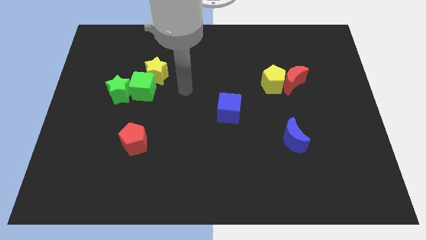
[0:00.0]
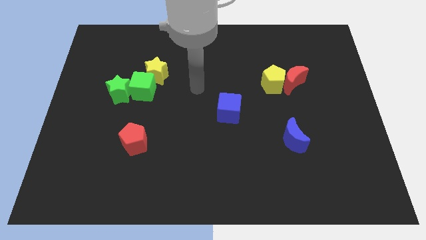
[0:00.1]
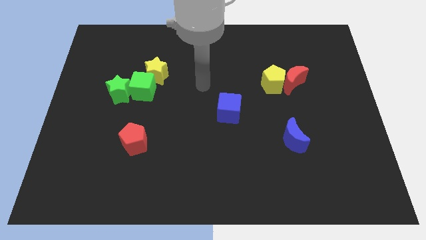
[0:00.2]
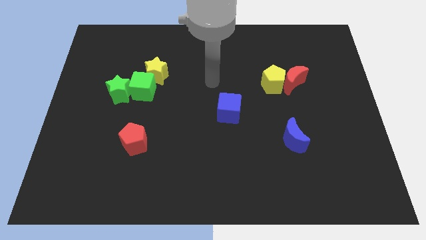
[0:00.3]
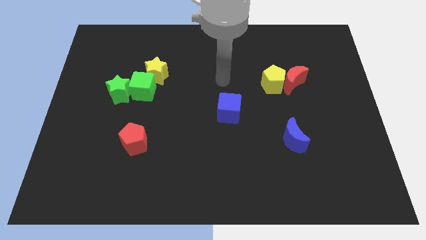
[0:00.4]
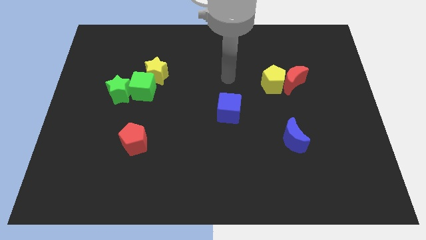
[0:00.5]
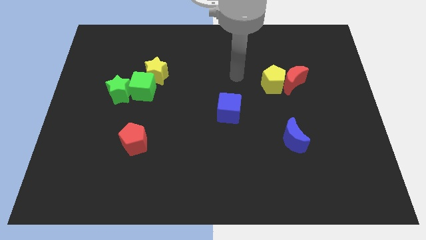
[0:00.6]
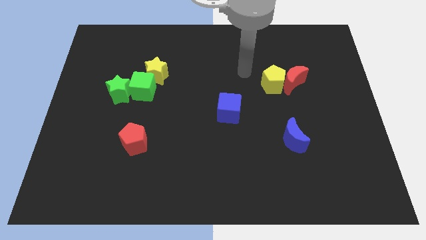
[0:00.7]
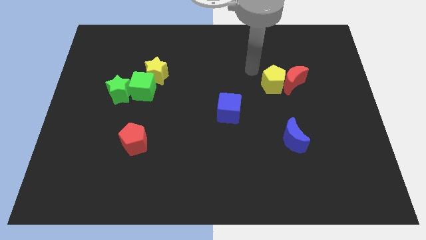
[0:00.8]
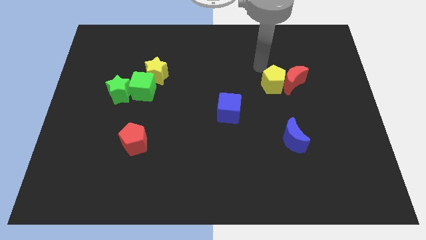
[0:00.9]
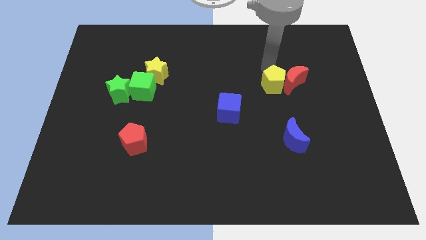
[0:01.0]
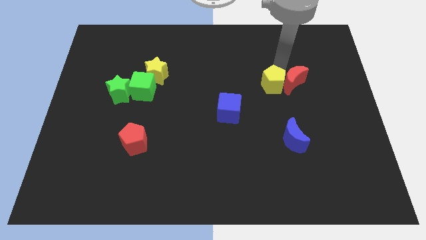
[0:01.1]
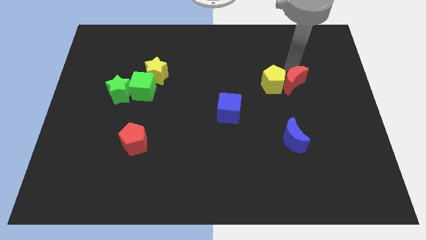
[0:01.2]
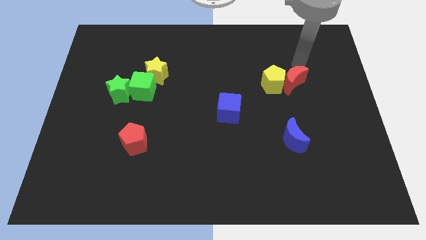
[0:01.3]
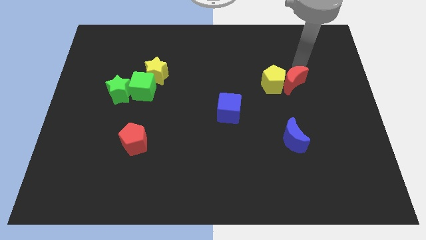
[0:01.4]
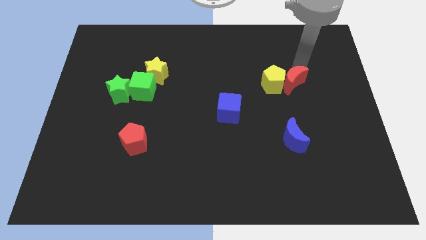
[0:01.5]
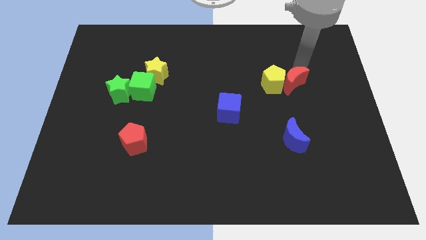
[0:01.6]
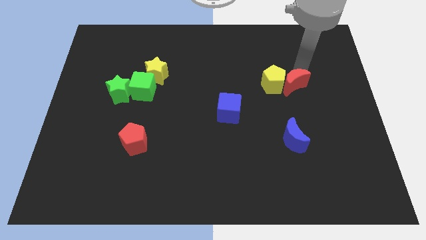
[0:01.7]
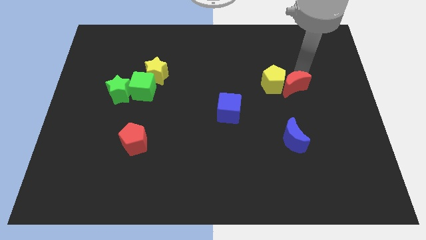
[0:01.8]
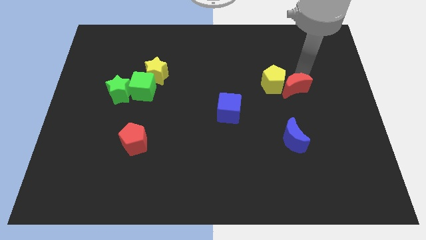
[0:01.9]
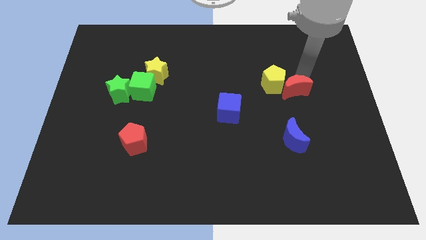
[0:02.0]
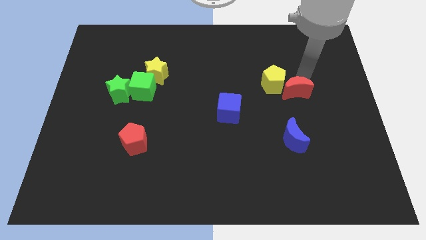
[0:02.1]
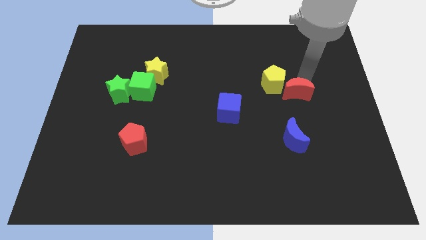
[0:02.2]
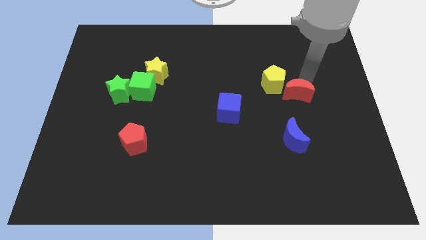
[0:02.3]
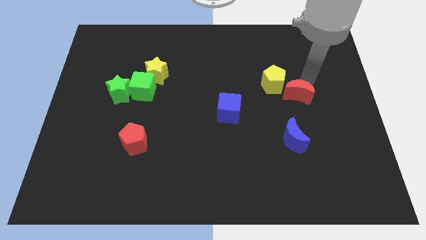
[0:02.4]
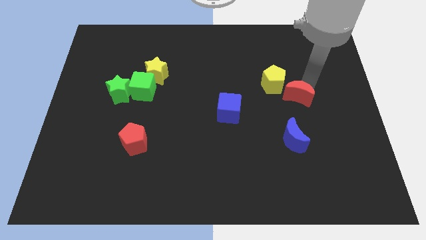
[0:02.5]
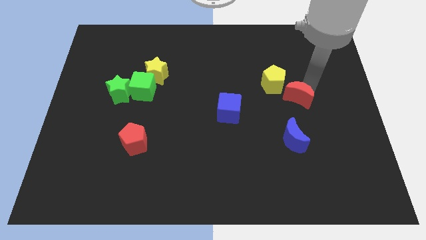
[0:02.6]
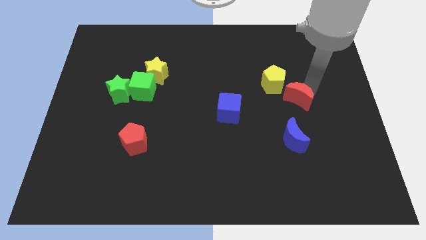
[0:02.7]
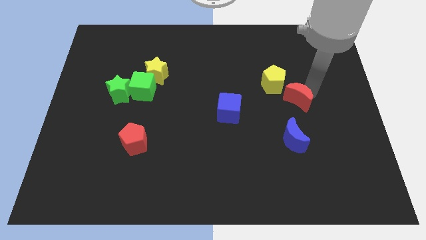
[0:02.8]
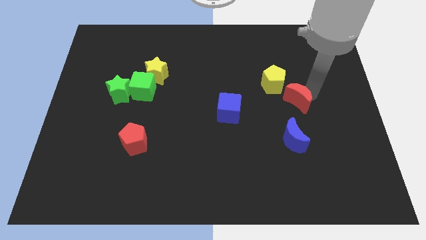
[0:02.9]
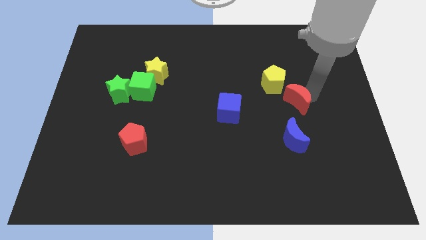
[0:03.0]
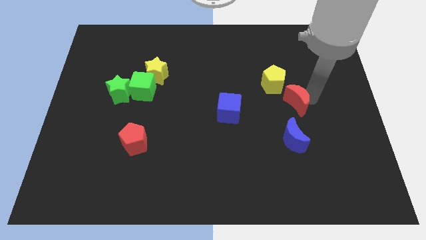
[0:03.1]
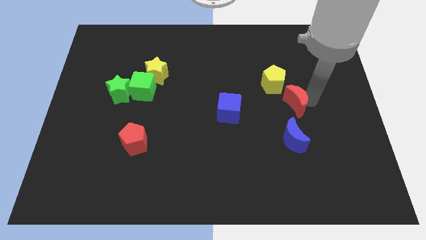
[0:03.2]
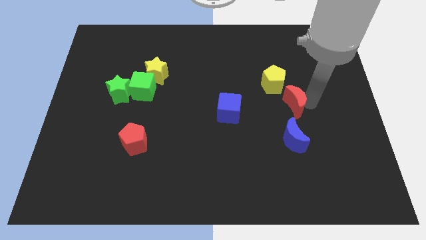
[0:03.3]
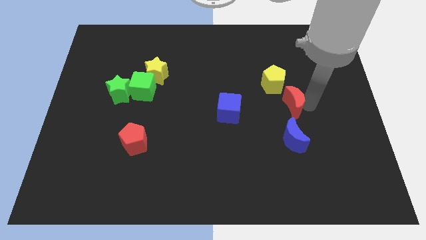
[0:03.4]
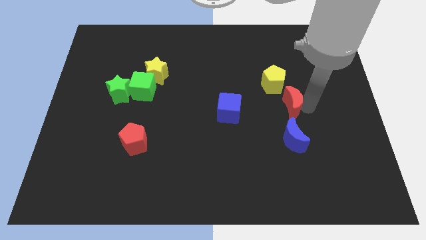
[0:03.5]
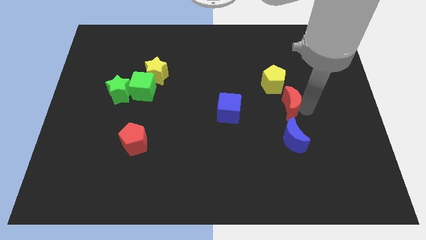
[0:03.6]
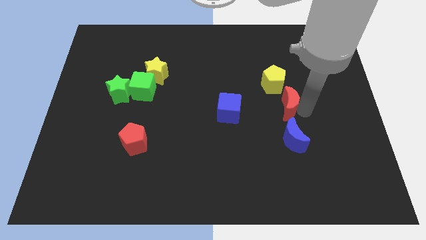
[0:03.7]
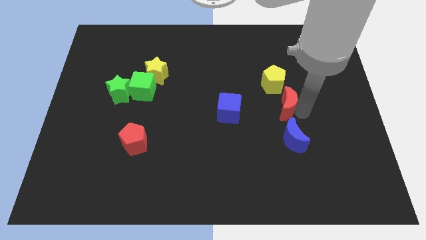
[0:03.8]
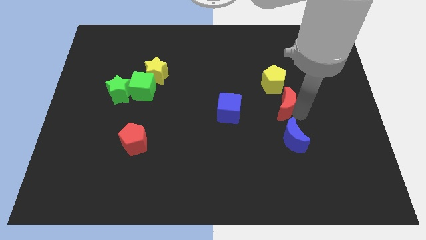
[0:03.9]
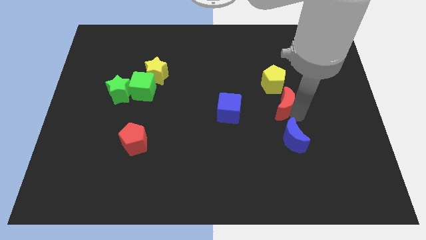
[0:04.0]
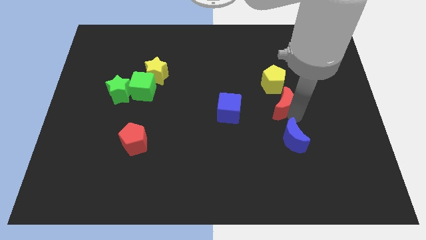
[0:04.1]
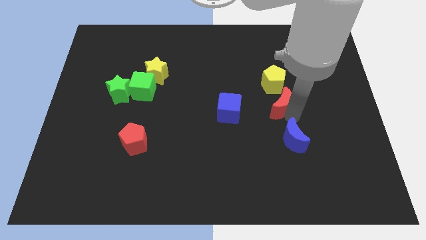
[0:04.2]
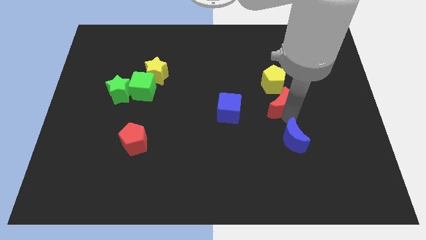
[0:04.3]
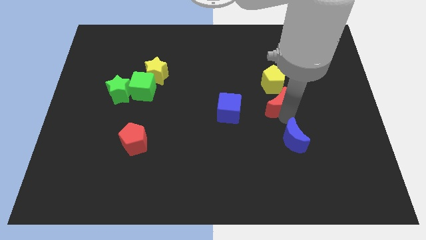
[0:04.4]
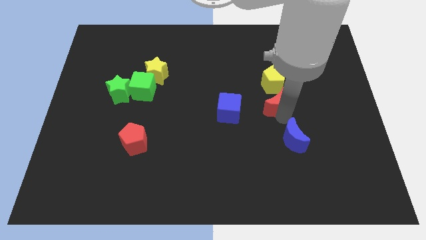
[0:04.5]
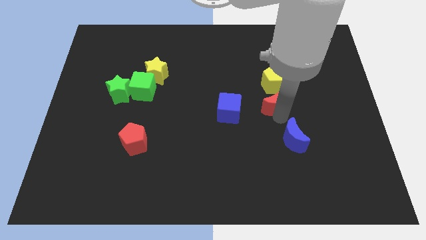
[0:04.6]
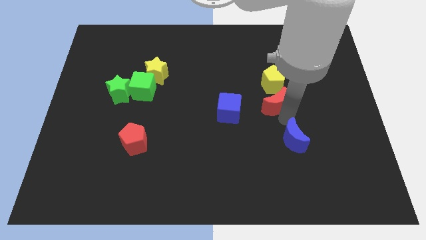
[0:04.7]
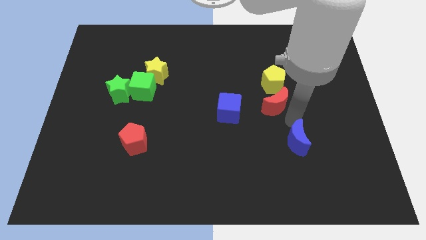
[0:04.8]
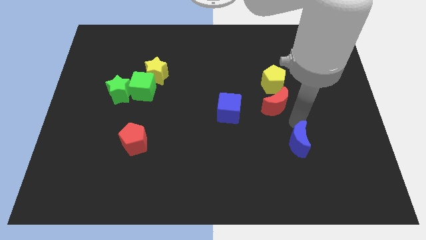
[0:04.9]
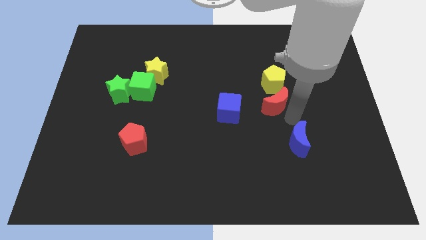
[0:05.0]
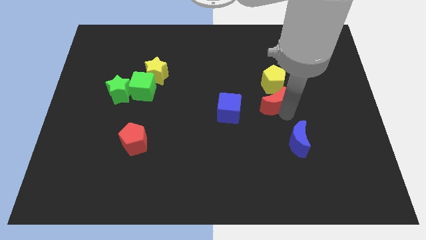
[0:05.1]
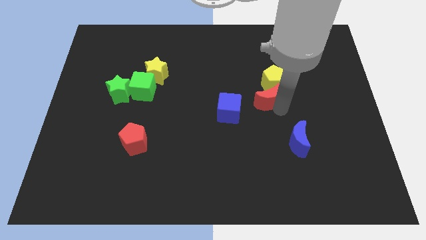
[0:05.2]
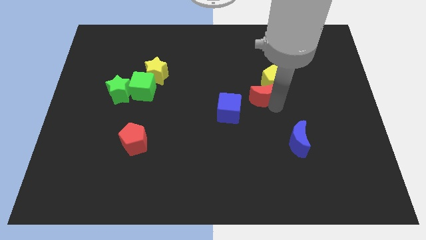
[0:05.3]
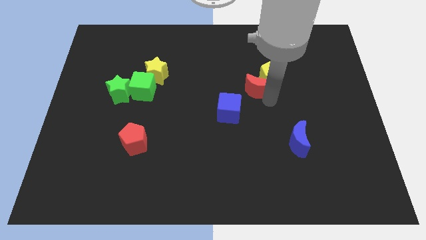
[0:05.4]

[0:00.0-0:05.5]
move the red moon just left of the yellow pentagon

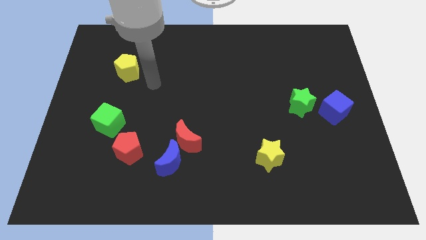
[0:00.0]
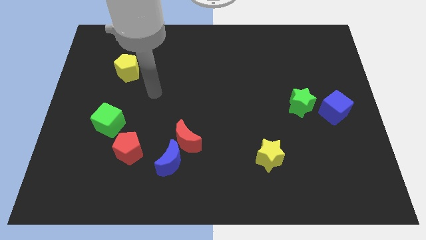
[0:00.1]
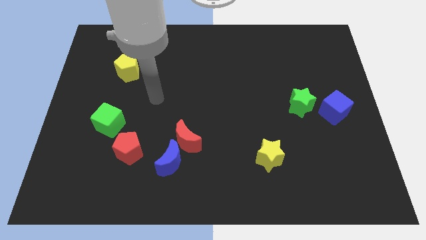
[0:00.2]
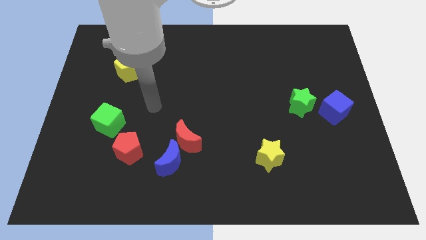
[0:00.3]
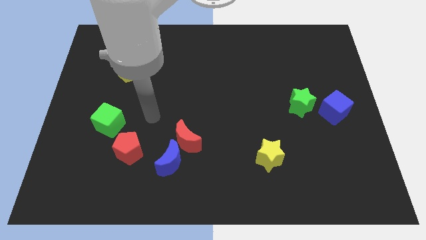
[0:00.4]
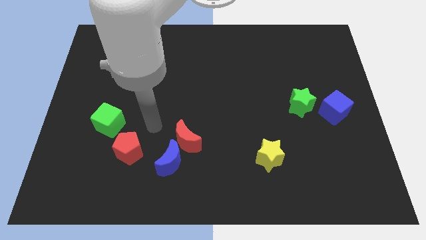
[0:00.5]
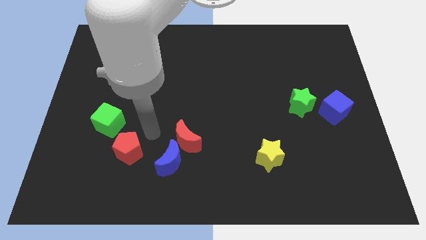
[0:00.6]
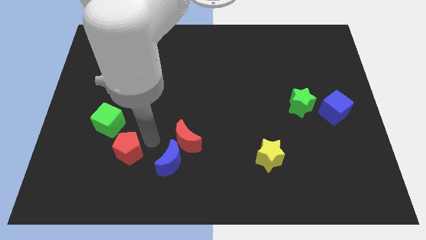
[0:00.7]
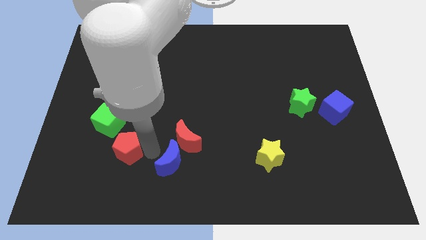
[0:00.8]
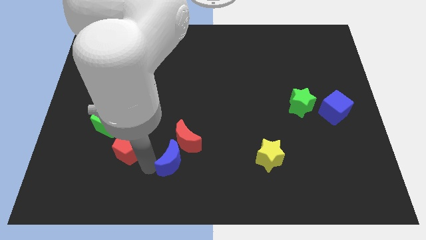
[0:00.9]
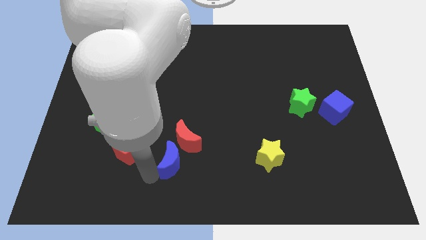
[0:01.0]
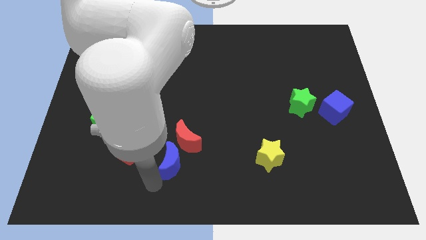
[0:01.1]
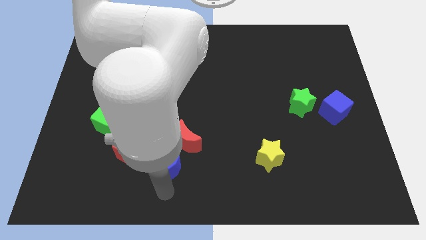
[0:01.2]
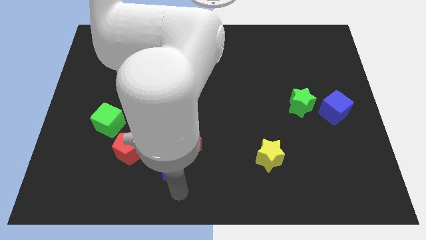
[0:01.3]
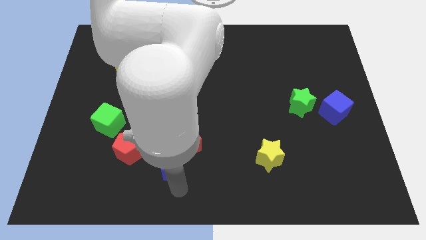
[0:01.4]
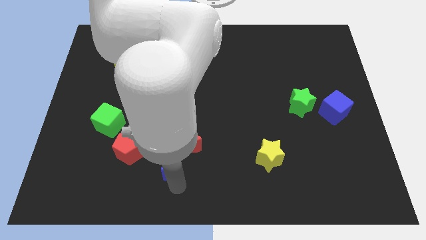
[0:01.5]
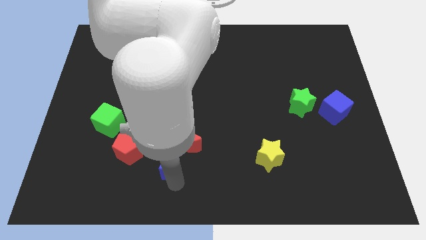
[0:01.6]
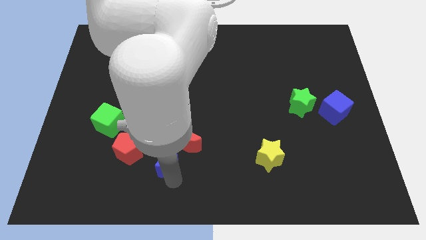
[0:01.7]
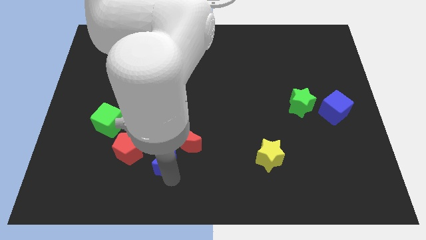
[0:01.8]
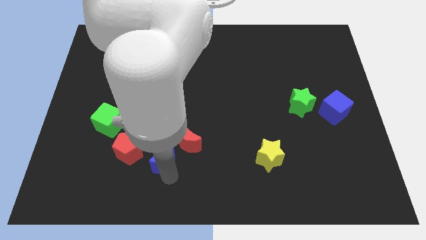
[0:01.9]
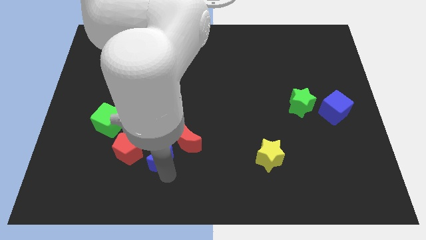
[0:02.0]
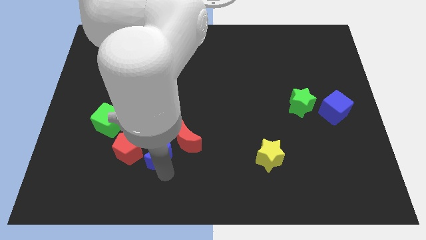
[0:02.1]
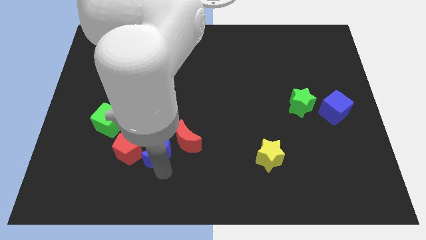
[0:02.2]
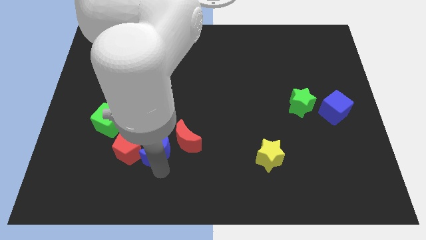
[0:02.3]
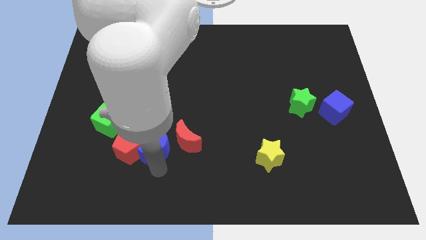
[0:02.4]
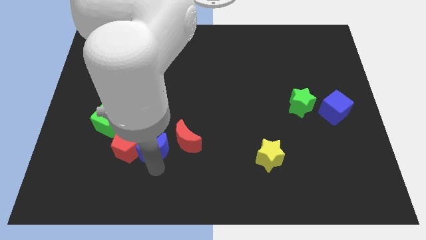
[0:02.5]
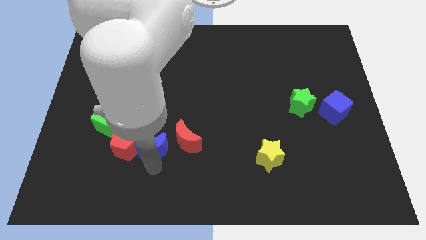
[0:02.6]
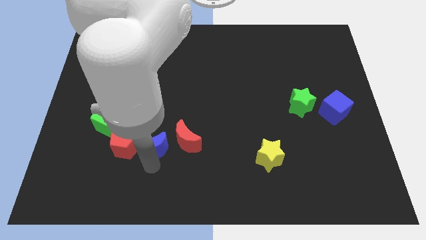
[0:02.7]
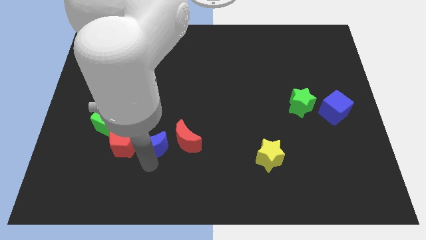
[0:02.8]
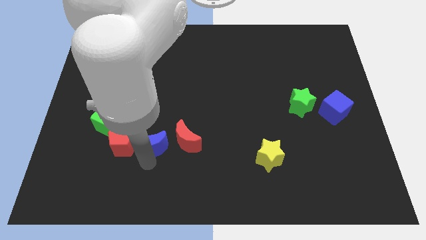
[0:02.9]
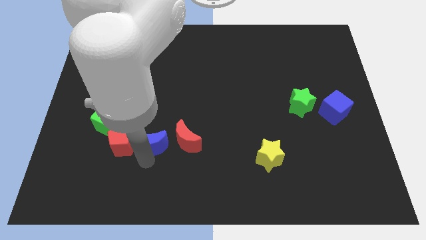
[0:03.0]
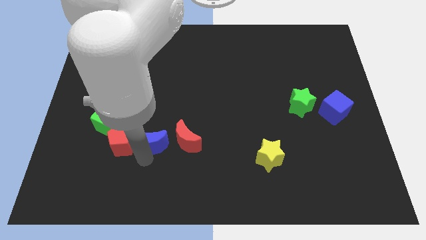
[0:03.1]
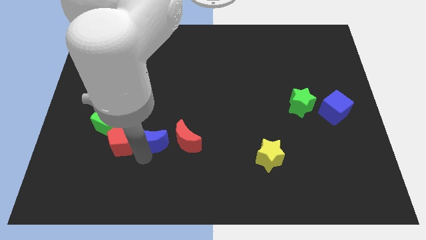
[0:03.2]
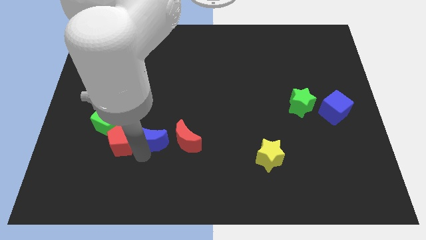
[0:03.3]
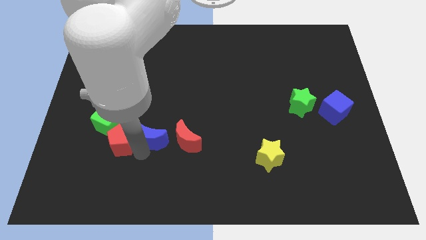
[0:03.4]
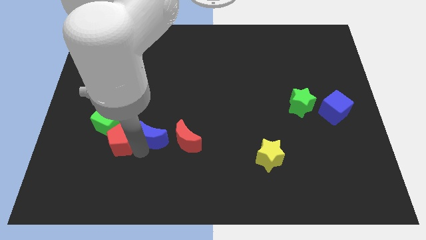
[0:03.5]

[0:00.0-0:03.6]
put the blue moon to the top left side of the red moon
